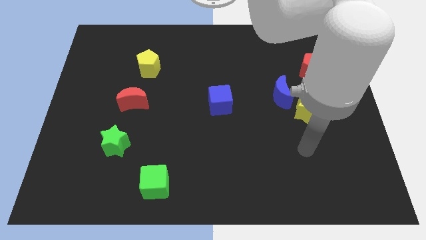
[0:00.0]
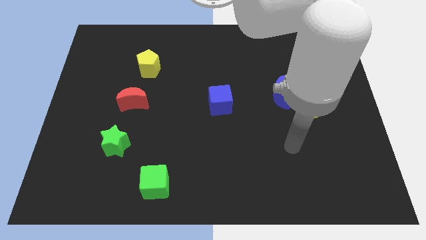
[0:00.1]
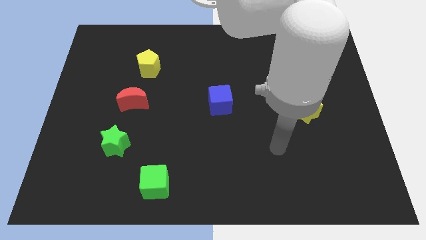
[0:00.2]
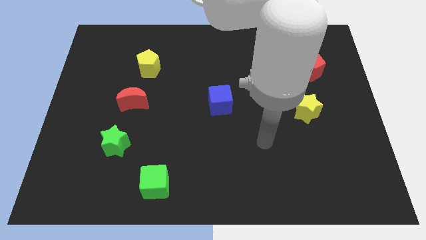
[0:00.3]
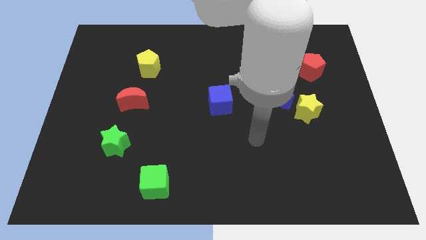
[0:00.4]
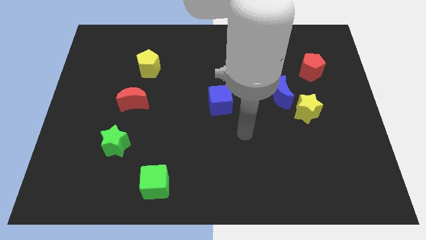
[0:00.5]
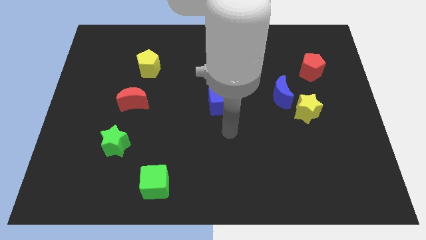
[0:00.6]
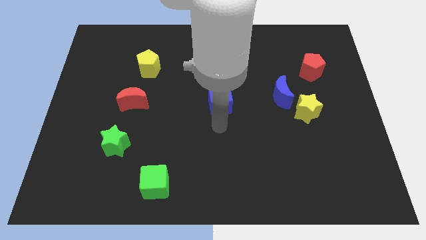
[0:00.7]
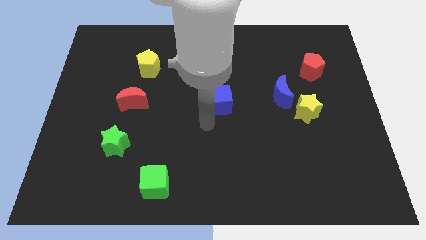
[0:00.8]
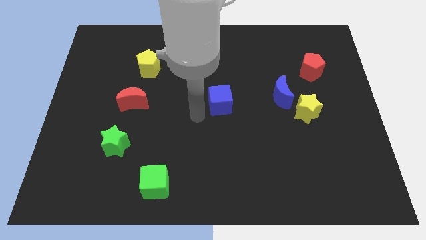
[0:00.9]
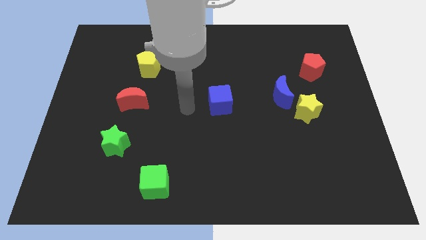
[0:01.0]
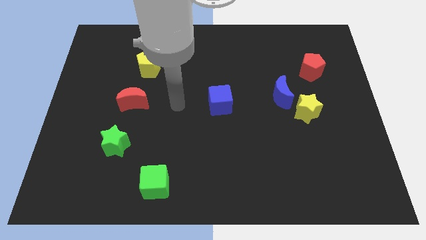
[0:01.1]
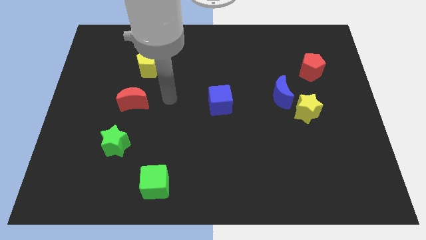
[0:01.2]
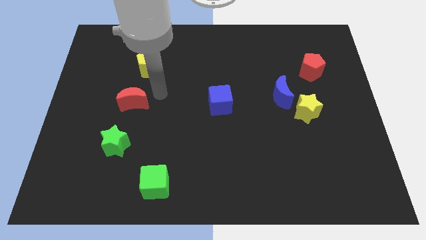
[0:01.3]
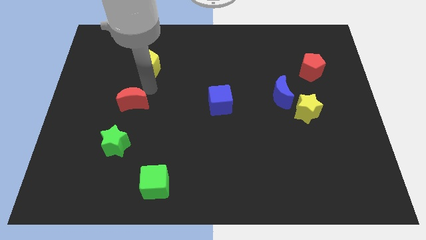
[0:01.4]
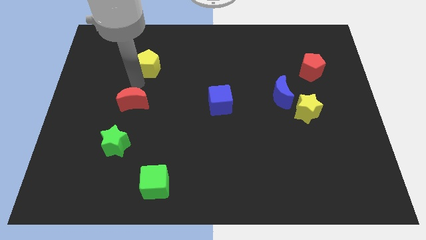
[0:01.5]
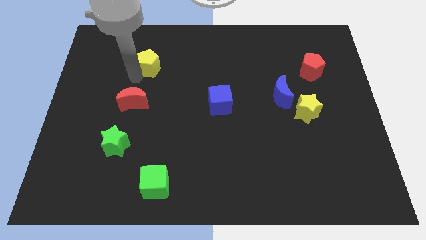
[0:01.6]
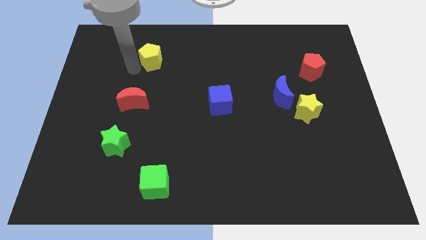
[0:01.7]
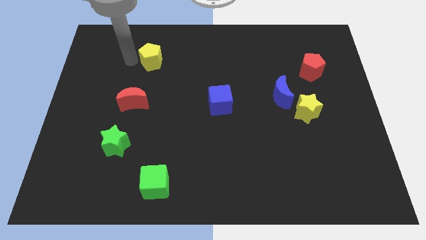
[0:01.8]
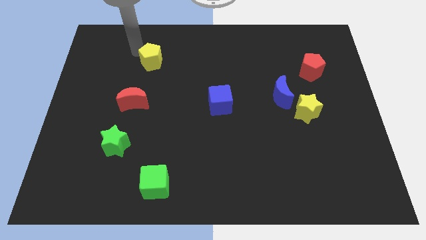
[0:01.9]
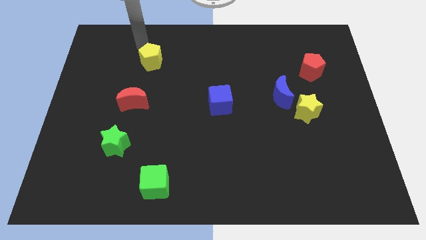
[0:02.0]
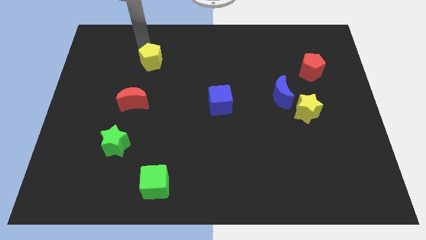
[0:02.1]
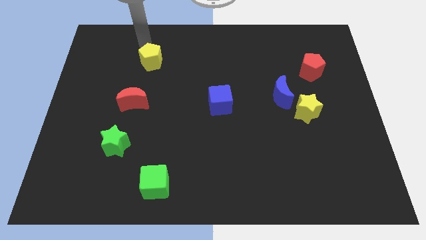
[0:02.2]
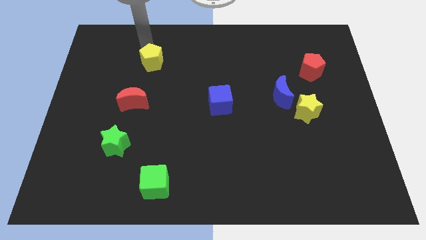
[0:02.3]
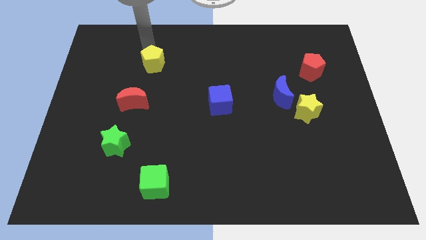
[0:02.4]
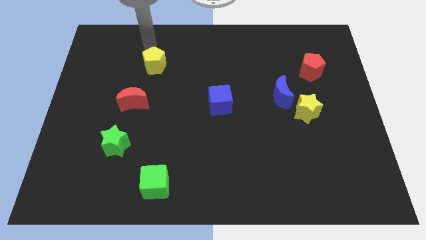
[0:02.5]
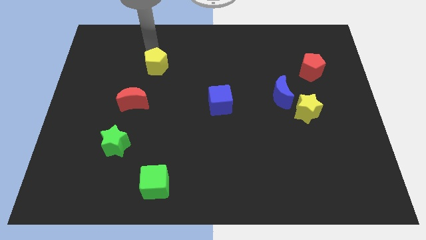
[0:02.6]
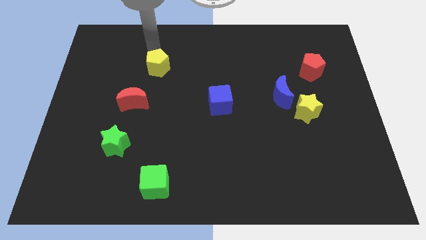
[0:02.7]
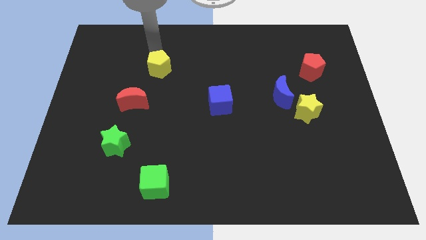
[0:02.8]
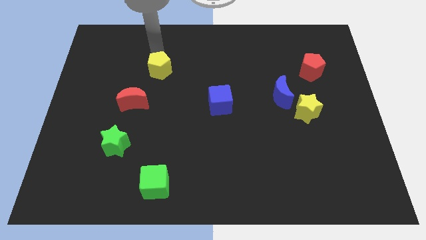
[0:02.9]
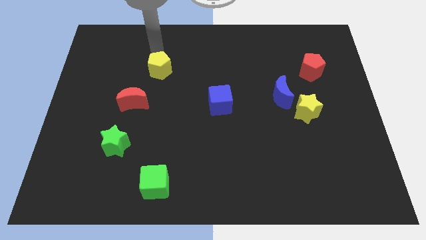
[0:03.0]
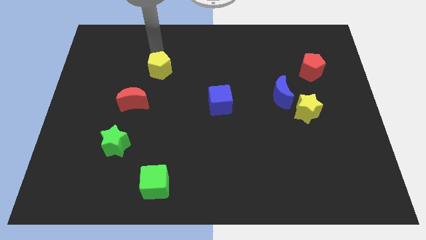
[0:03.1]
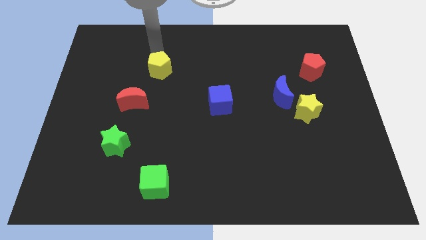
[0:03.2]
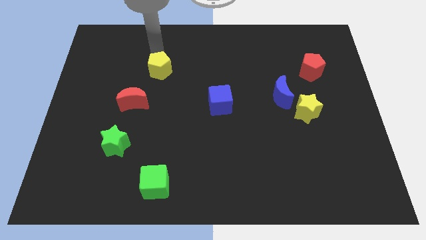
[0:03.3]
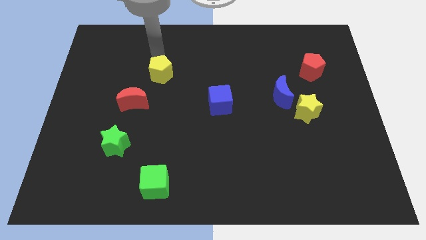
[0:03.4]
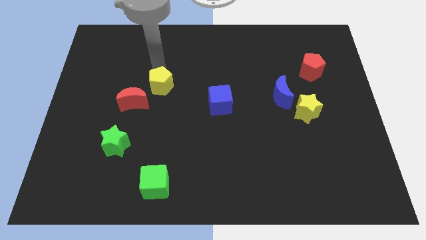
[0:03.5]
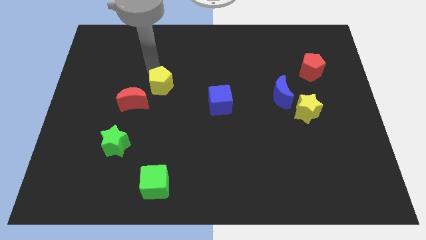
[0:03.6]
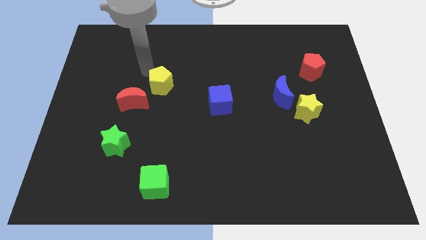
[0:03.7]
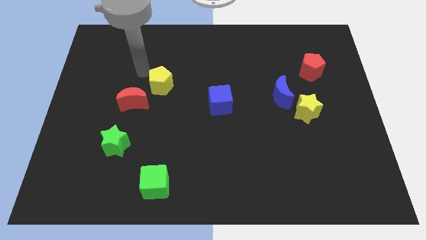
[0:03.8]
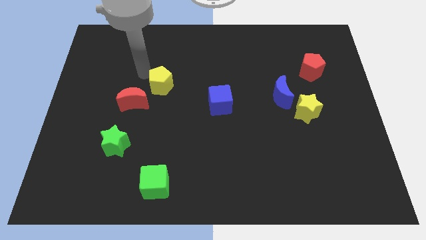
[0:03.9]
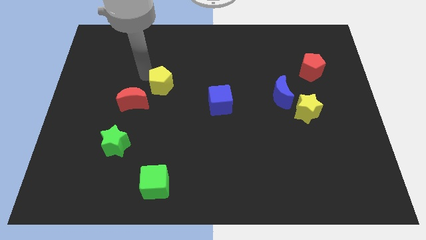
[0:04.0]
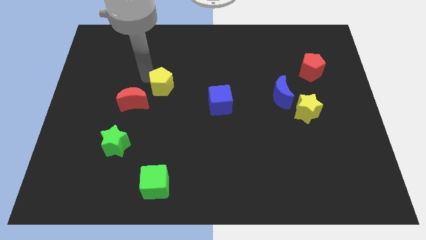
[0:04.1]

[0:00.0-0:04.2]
move the yellow pentagon slightly down and right diagonally

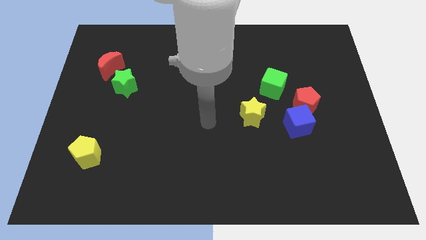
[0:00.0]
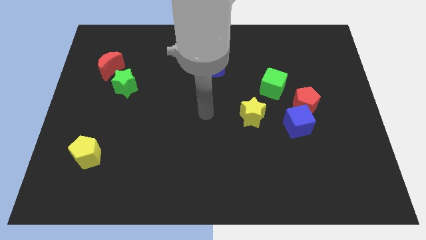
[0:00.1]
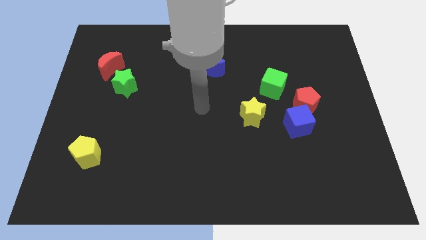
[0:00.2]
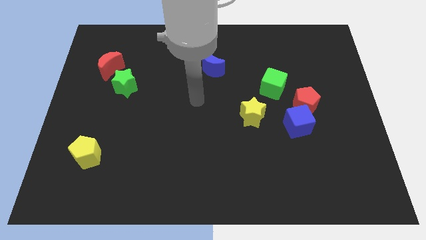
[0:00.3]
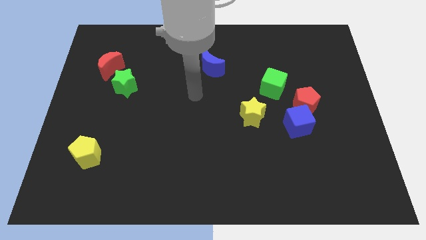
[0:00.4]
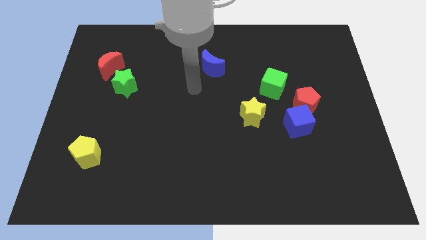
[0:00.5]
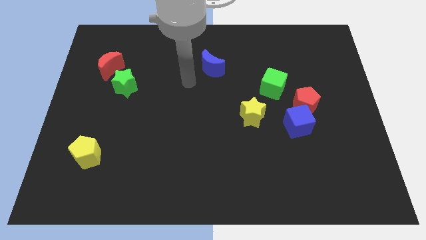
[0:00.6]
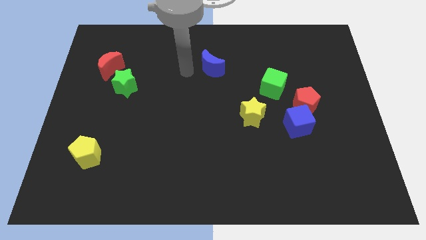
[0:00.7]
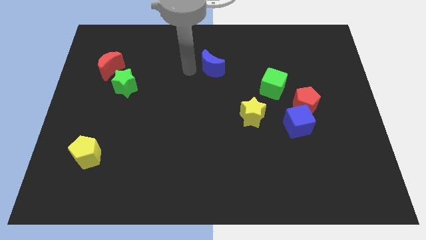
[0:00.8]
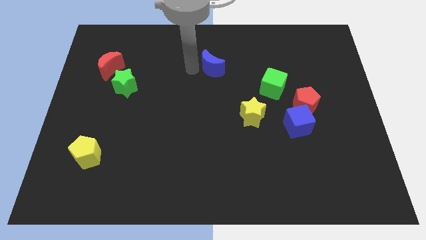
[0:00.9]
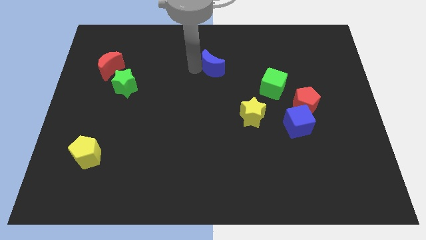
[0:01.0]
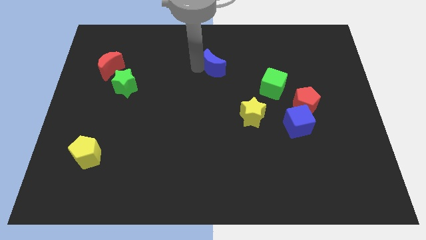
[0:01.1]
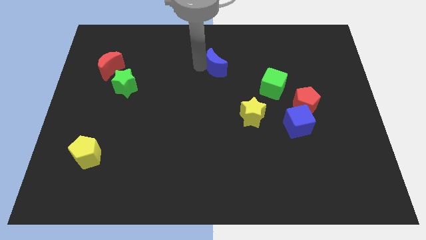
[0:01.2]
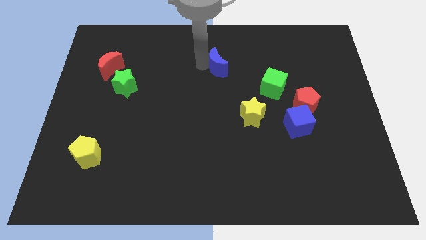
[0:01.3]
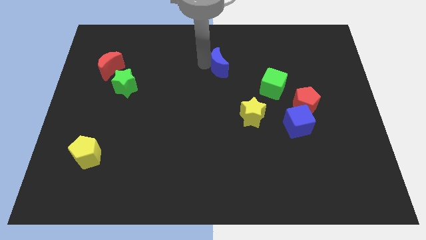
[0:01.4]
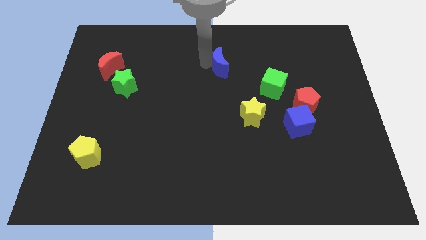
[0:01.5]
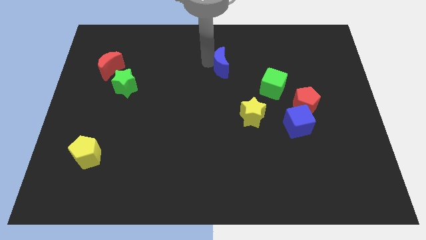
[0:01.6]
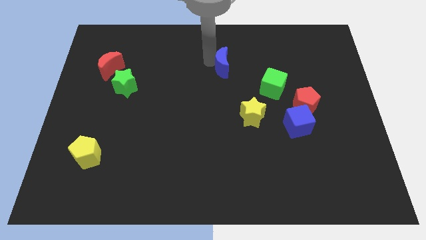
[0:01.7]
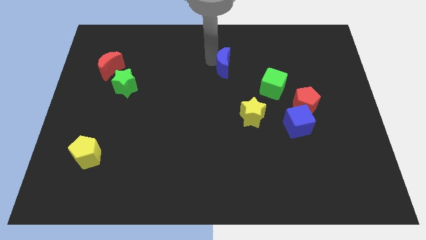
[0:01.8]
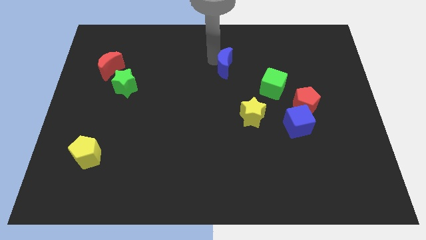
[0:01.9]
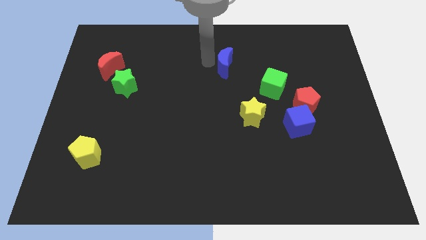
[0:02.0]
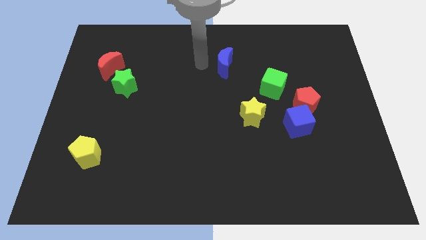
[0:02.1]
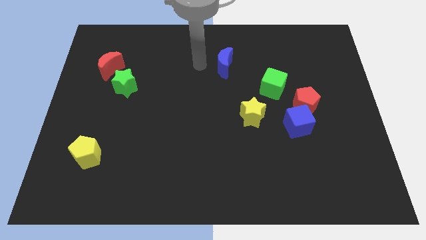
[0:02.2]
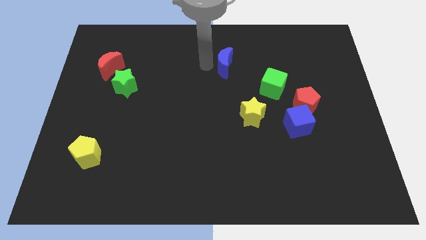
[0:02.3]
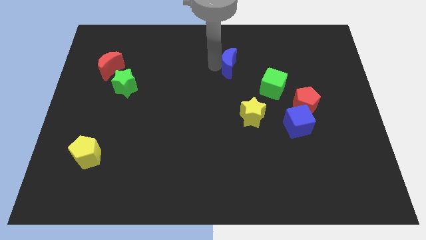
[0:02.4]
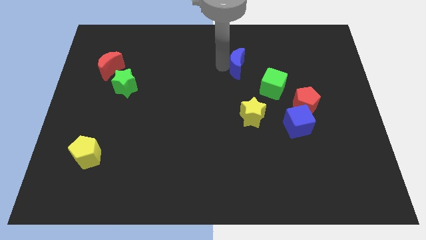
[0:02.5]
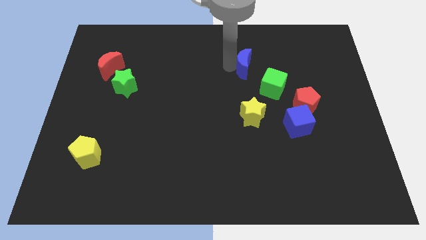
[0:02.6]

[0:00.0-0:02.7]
slightly push the blue moon right

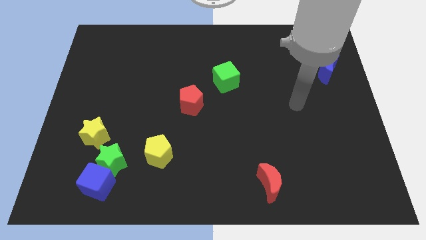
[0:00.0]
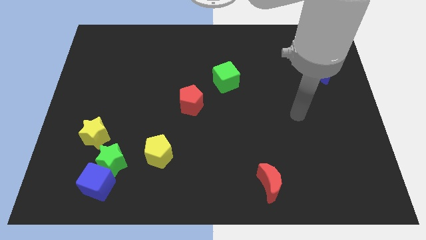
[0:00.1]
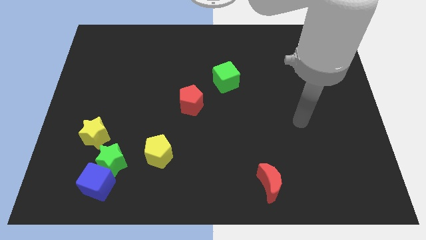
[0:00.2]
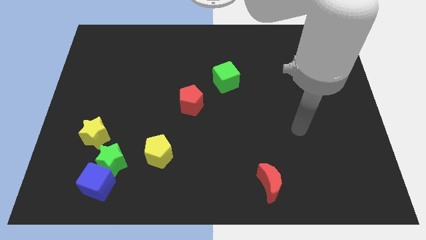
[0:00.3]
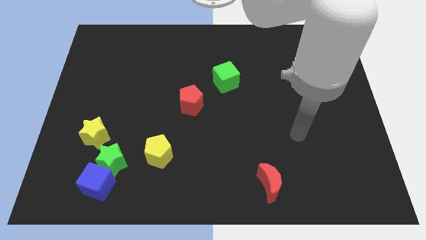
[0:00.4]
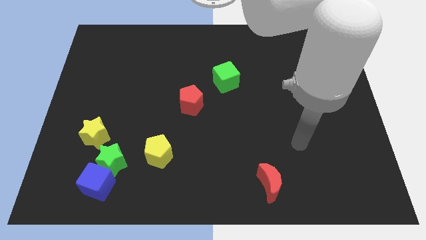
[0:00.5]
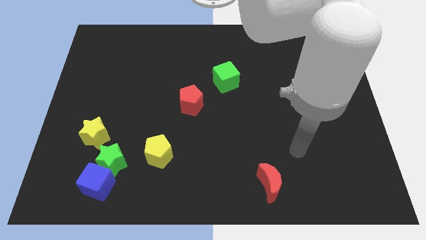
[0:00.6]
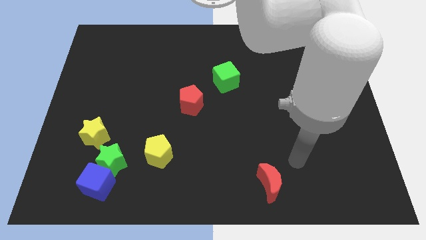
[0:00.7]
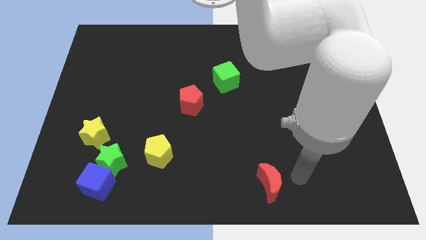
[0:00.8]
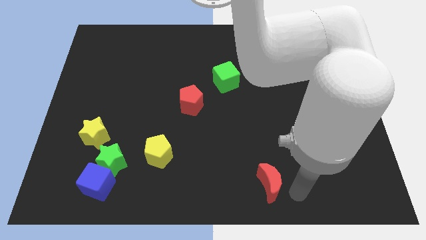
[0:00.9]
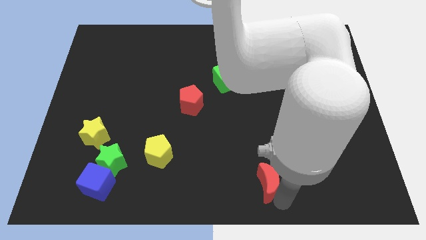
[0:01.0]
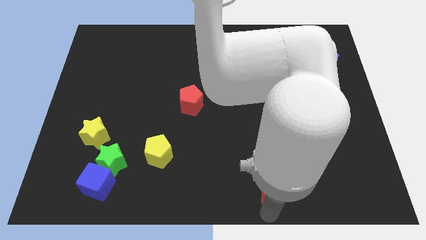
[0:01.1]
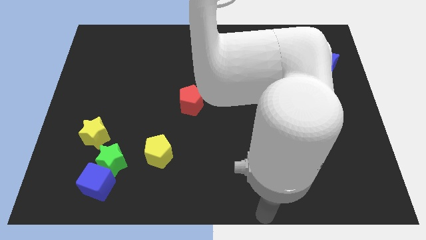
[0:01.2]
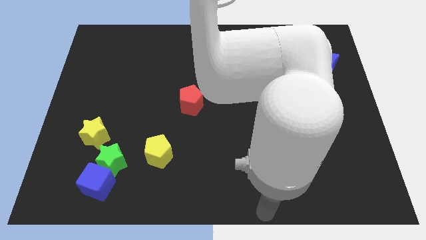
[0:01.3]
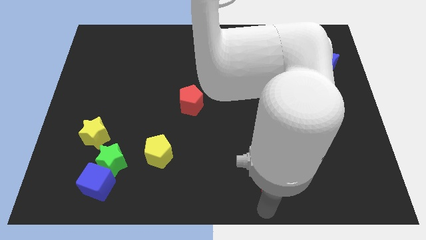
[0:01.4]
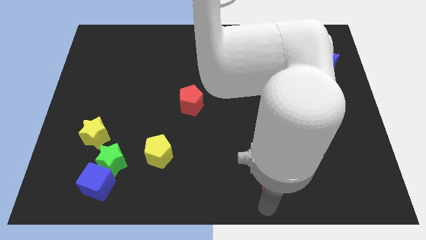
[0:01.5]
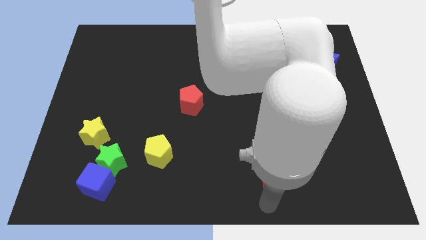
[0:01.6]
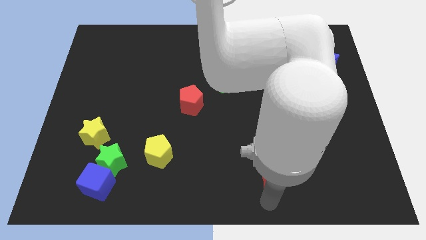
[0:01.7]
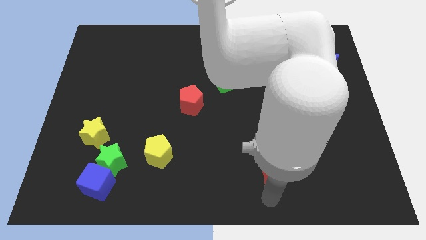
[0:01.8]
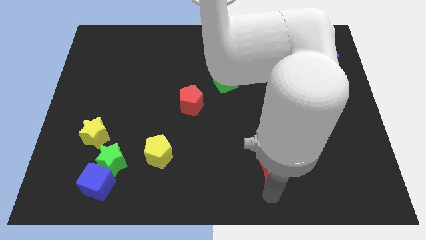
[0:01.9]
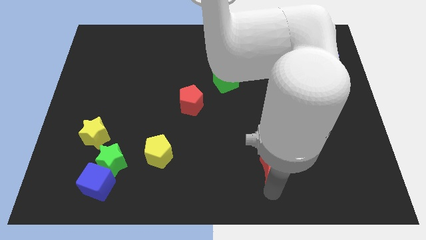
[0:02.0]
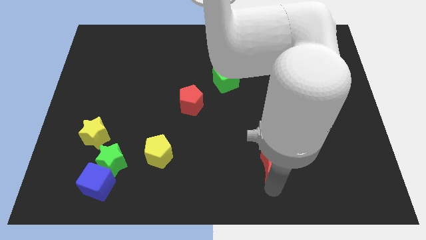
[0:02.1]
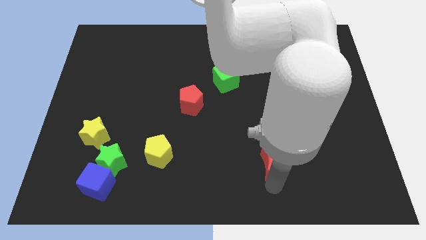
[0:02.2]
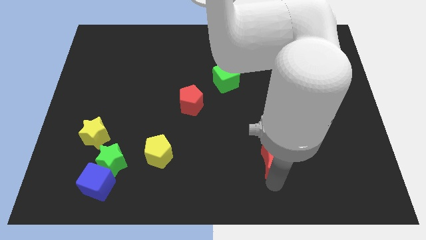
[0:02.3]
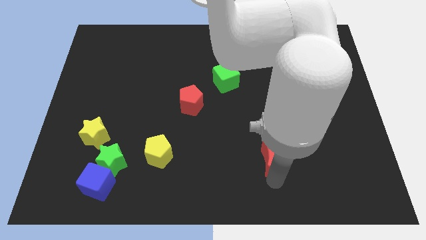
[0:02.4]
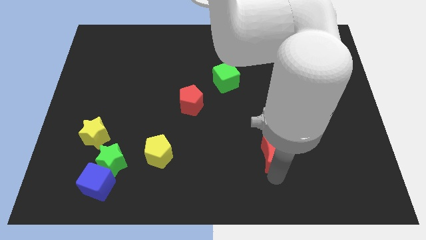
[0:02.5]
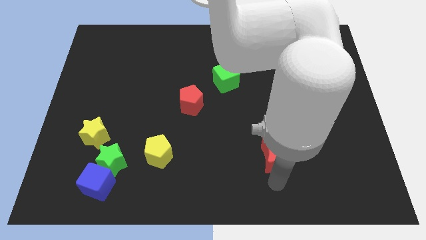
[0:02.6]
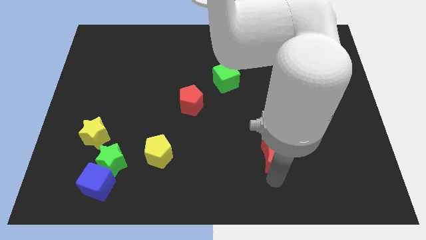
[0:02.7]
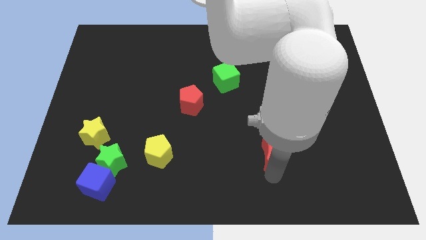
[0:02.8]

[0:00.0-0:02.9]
slide the red moon upwards somewhat
